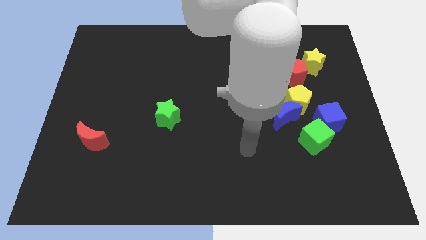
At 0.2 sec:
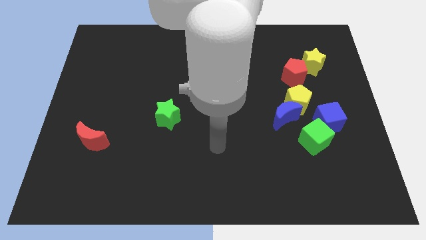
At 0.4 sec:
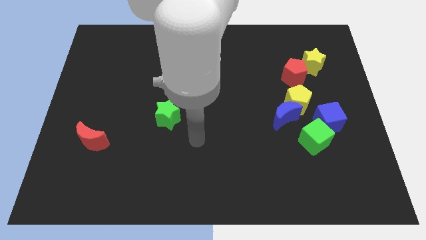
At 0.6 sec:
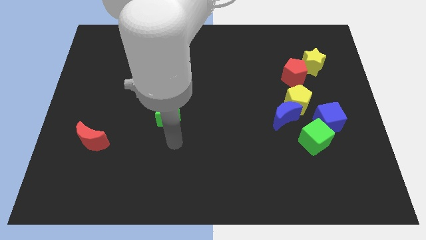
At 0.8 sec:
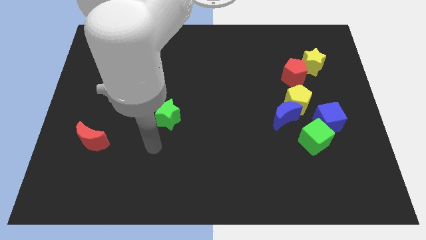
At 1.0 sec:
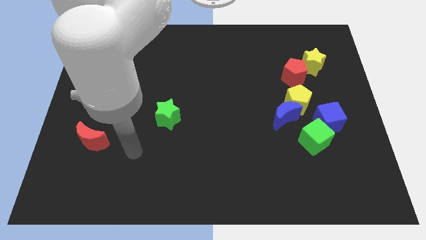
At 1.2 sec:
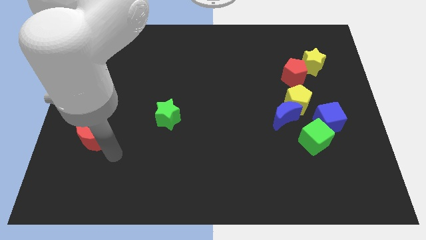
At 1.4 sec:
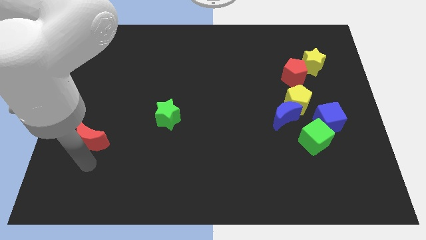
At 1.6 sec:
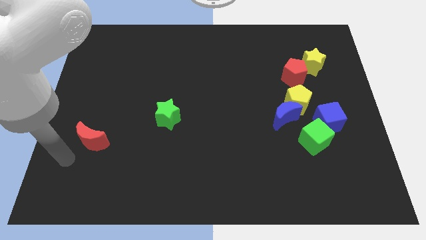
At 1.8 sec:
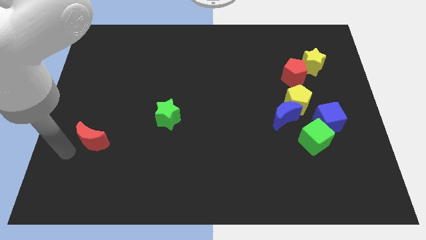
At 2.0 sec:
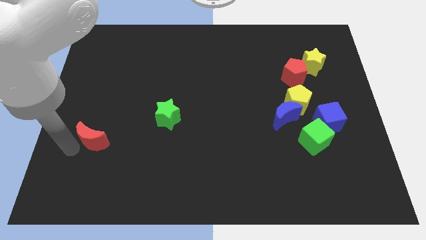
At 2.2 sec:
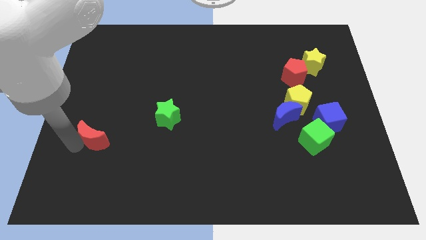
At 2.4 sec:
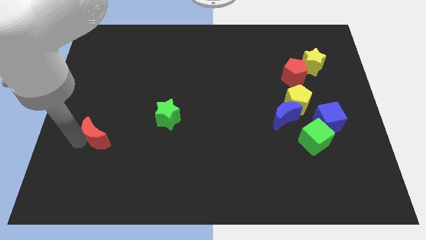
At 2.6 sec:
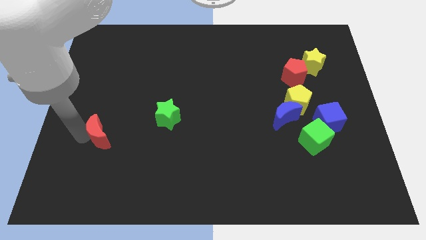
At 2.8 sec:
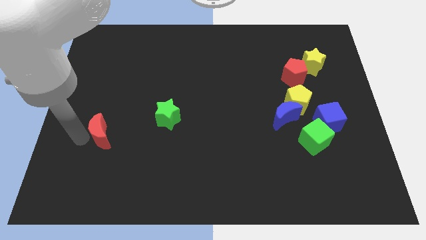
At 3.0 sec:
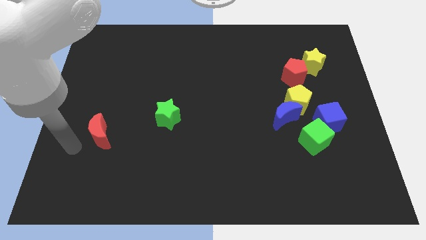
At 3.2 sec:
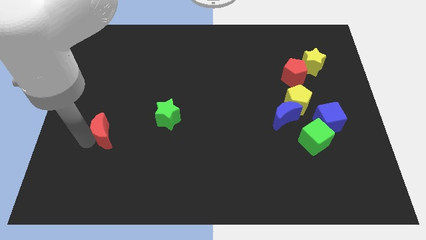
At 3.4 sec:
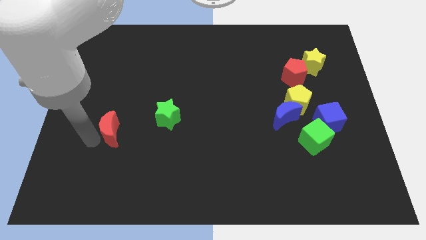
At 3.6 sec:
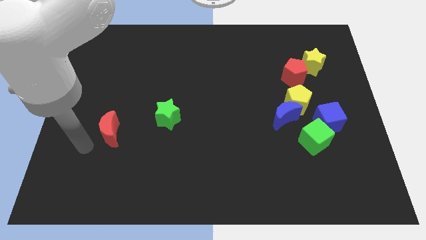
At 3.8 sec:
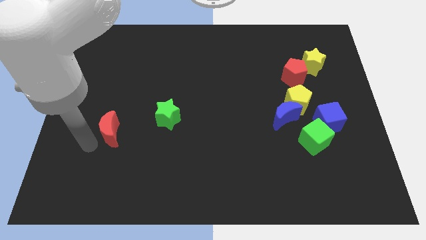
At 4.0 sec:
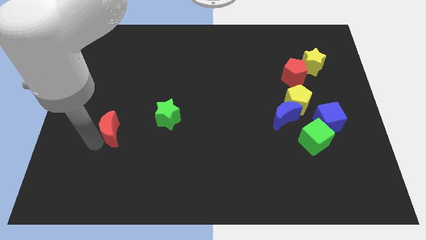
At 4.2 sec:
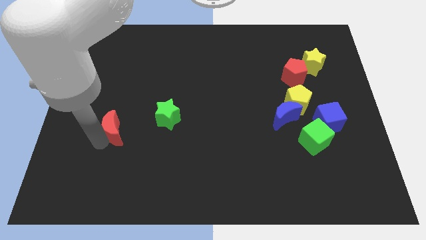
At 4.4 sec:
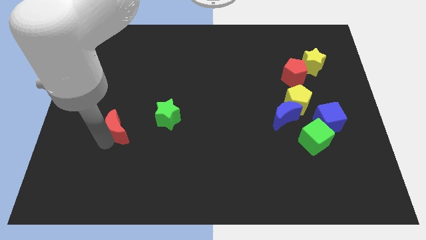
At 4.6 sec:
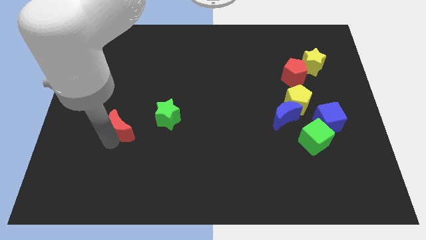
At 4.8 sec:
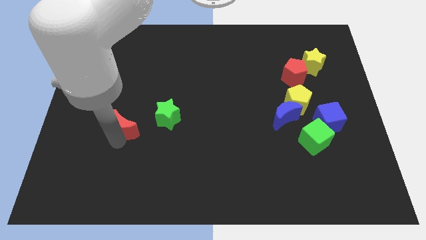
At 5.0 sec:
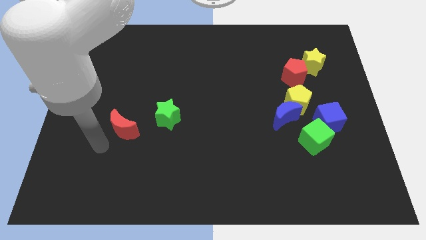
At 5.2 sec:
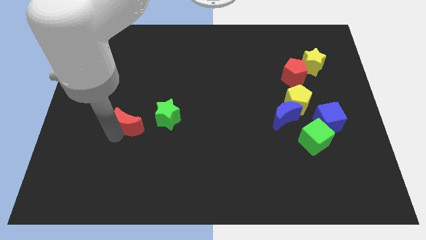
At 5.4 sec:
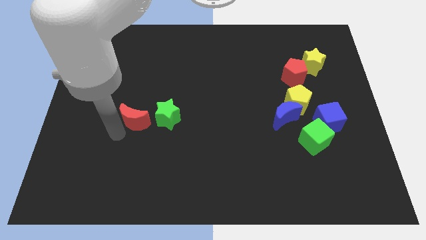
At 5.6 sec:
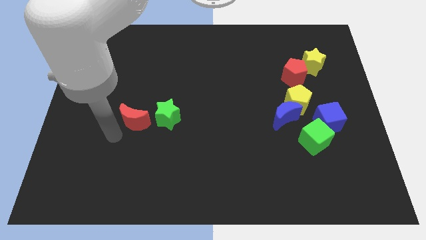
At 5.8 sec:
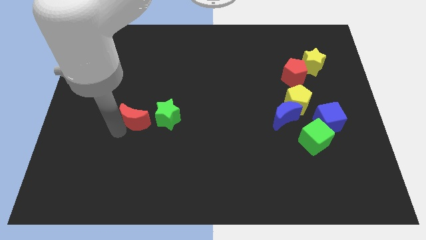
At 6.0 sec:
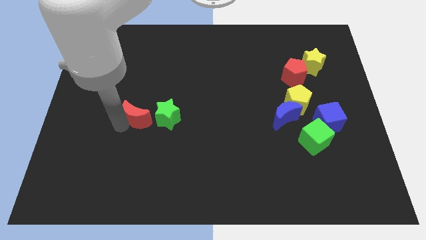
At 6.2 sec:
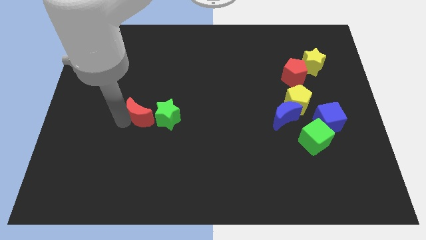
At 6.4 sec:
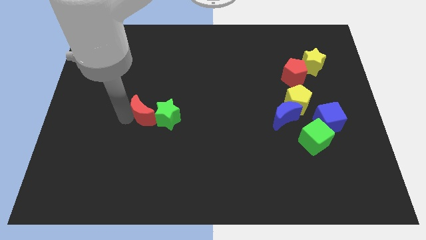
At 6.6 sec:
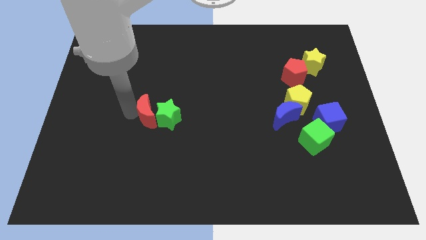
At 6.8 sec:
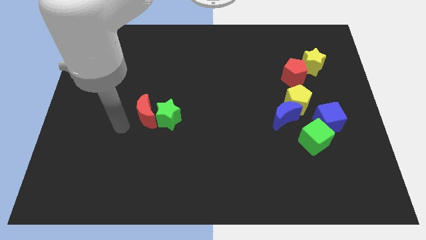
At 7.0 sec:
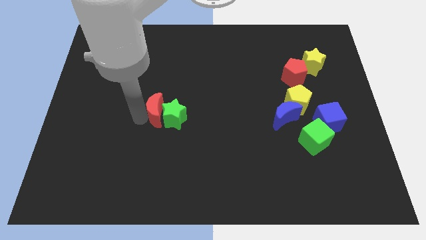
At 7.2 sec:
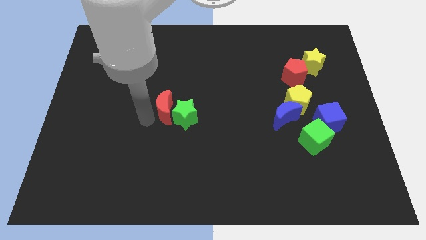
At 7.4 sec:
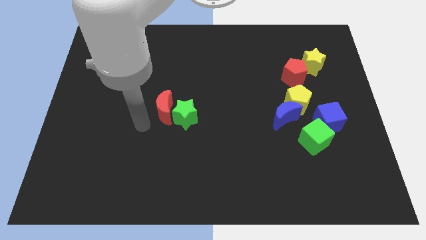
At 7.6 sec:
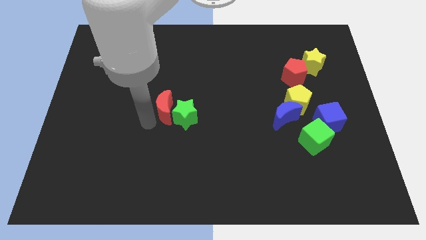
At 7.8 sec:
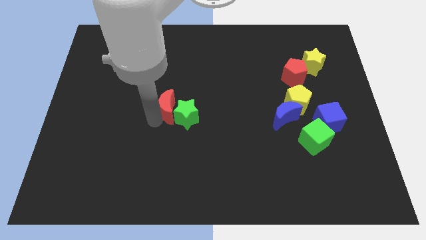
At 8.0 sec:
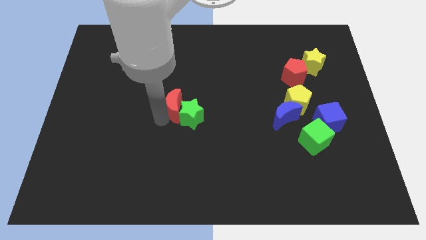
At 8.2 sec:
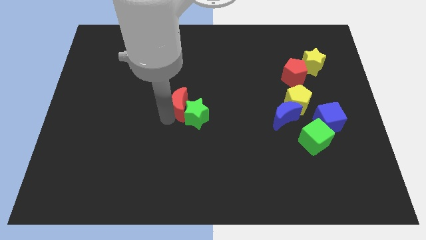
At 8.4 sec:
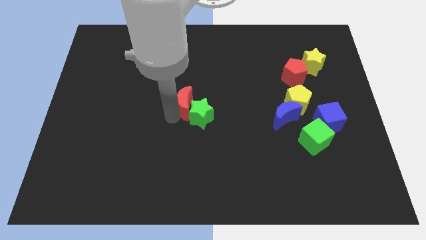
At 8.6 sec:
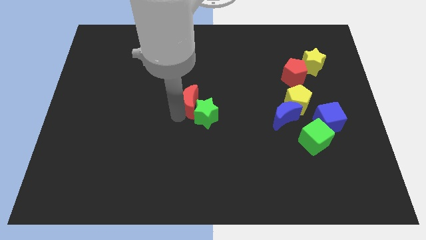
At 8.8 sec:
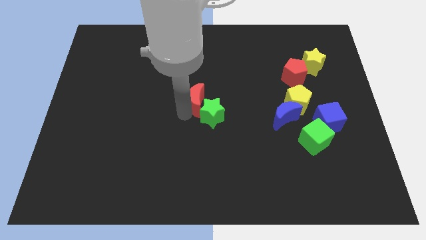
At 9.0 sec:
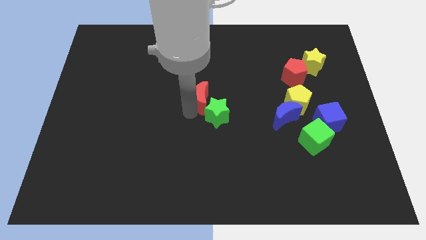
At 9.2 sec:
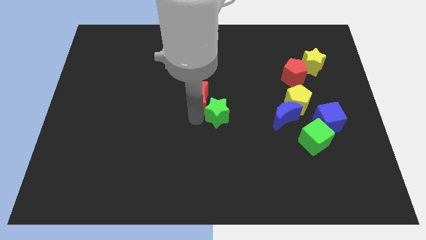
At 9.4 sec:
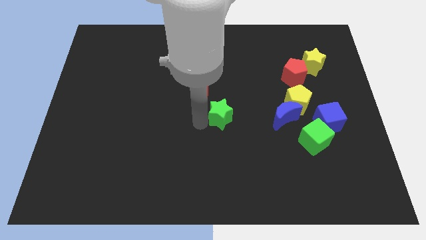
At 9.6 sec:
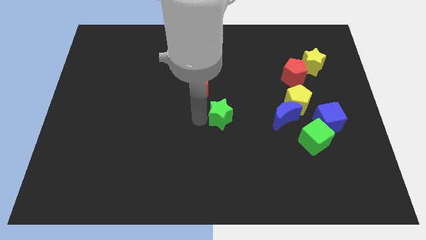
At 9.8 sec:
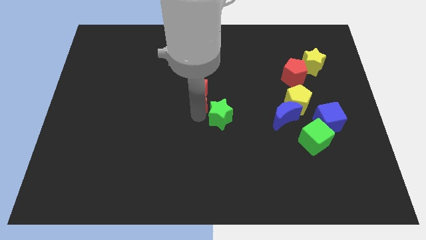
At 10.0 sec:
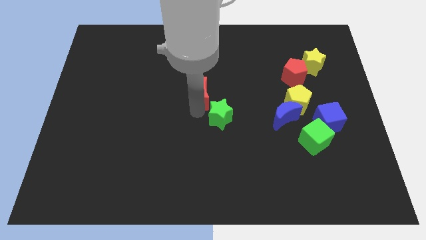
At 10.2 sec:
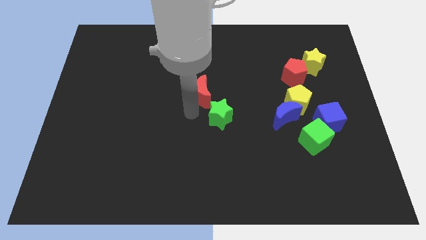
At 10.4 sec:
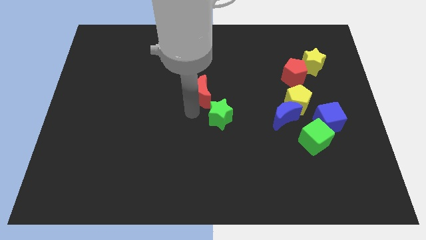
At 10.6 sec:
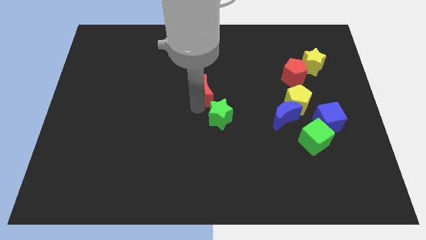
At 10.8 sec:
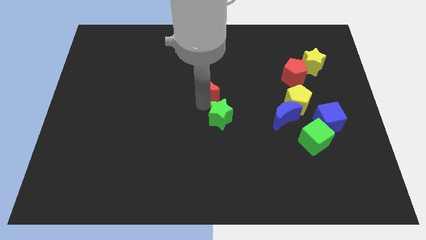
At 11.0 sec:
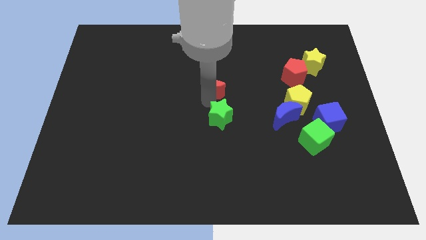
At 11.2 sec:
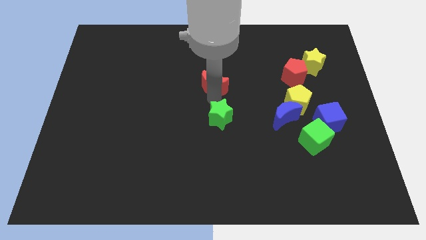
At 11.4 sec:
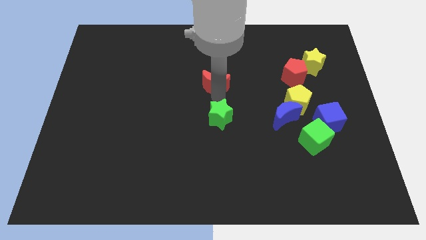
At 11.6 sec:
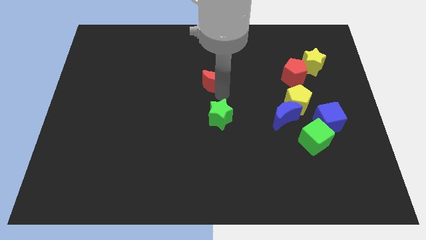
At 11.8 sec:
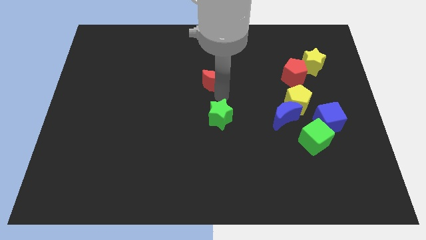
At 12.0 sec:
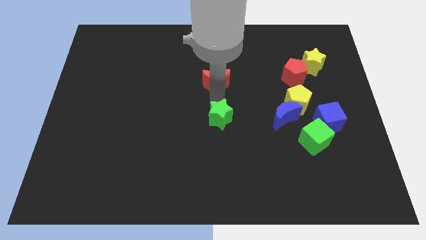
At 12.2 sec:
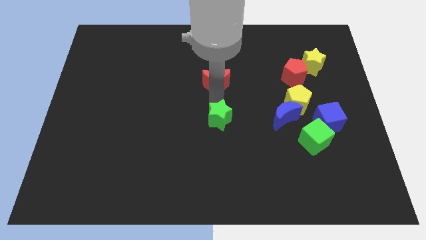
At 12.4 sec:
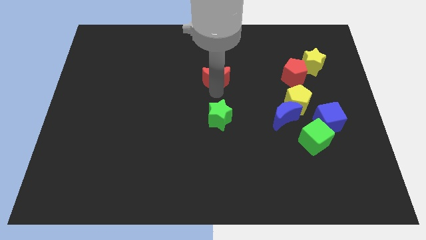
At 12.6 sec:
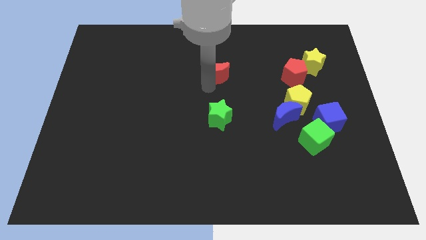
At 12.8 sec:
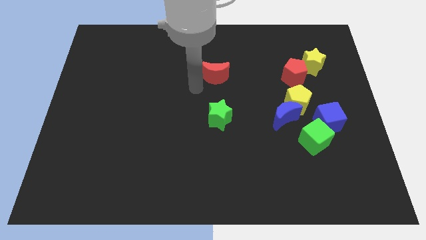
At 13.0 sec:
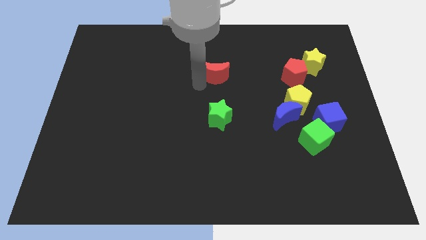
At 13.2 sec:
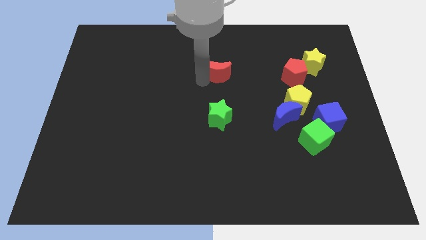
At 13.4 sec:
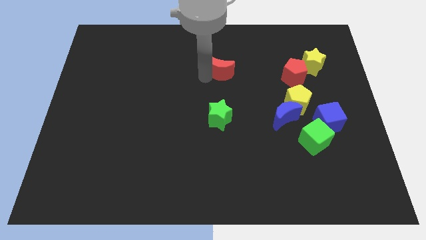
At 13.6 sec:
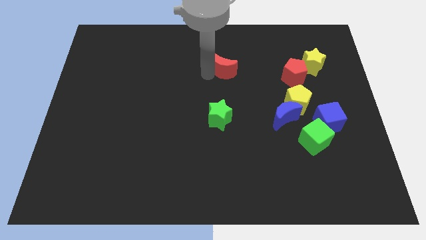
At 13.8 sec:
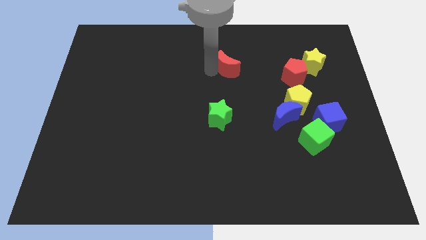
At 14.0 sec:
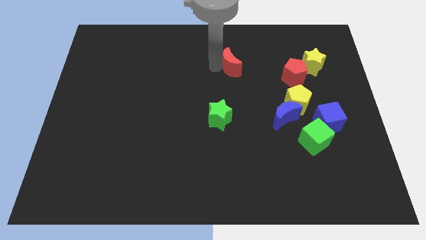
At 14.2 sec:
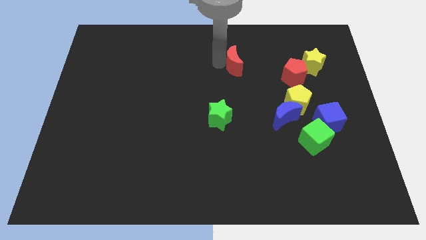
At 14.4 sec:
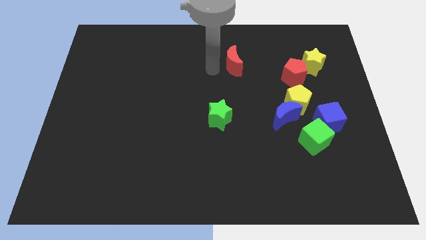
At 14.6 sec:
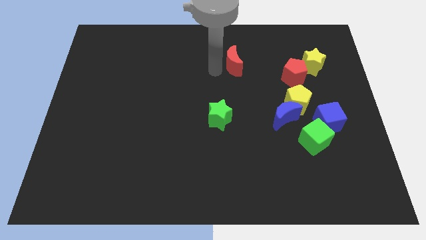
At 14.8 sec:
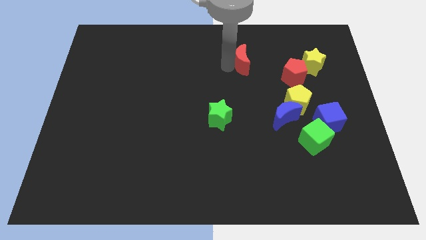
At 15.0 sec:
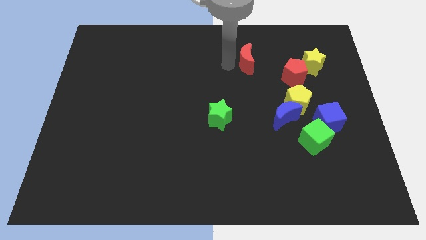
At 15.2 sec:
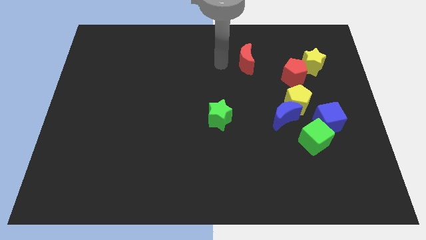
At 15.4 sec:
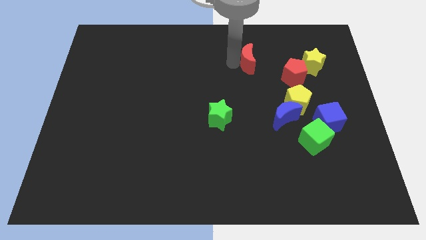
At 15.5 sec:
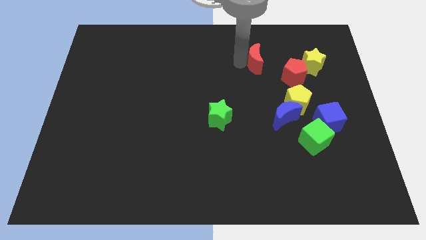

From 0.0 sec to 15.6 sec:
push the red moon diagonally up and to the left of the red pentagon
